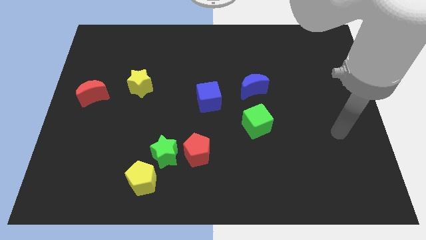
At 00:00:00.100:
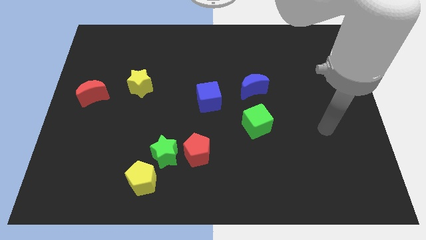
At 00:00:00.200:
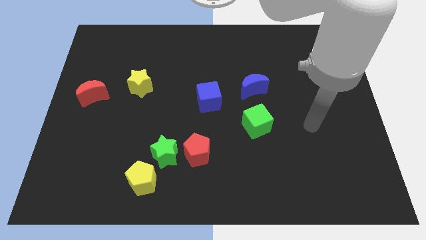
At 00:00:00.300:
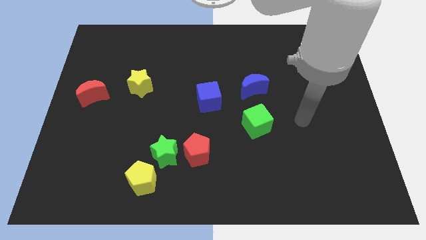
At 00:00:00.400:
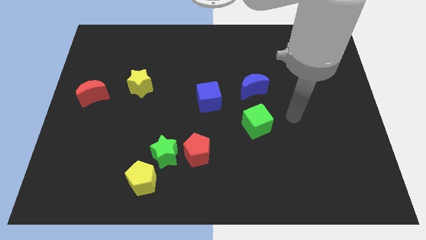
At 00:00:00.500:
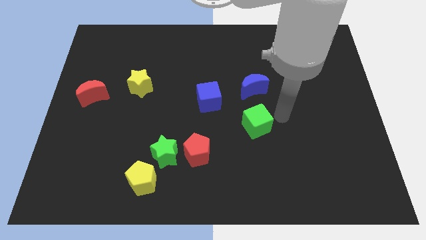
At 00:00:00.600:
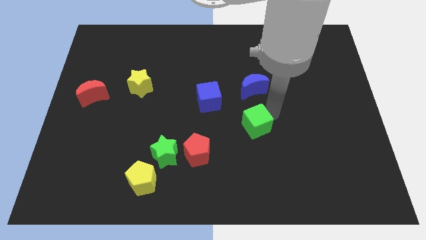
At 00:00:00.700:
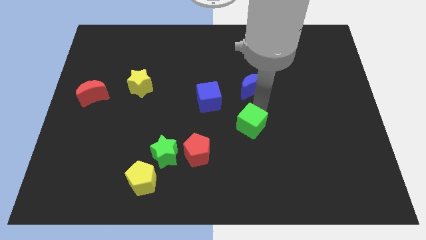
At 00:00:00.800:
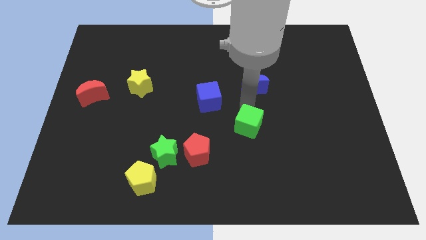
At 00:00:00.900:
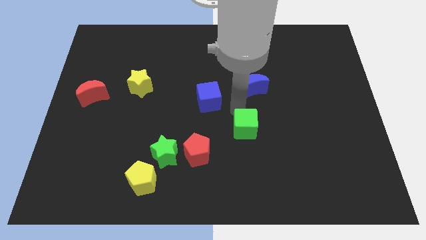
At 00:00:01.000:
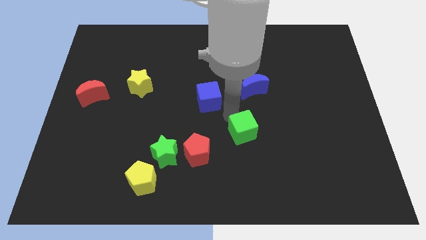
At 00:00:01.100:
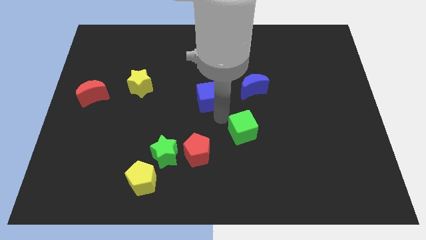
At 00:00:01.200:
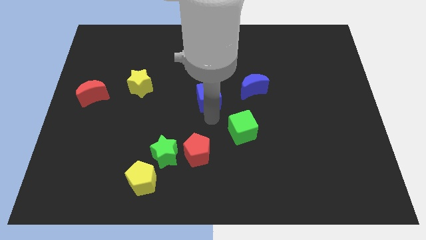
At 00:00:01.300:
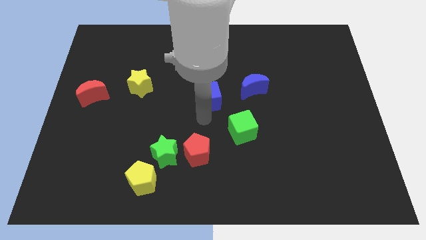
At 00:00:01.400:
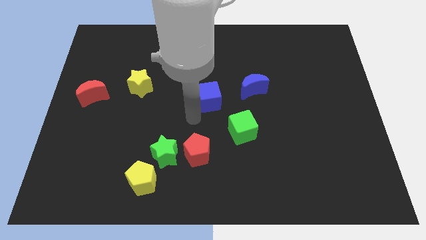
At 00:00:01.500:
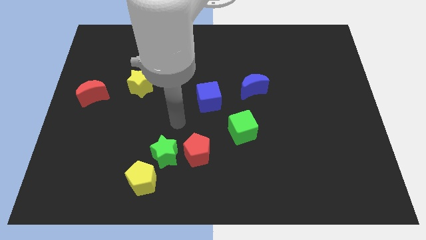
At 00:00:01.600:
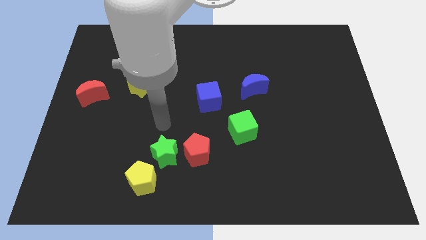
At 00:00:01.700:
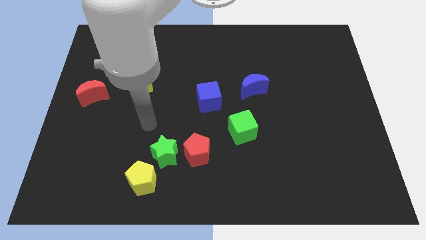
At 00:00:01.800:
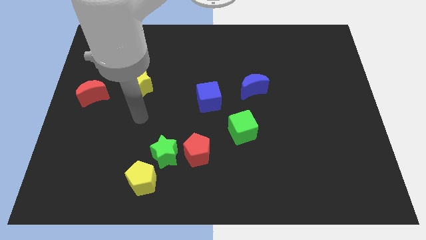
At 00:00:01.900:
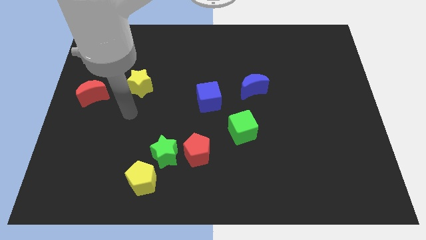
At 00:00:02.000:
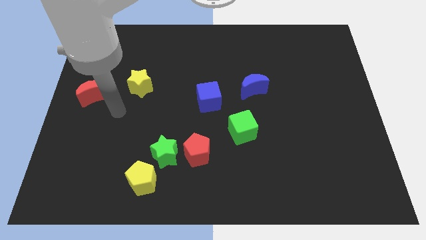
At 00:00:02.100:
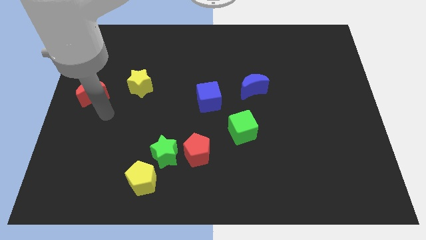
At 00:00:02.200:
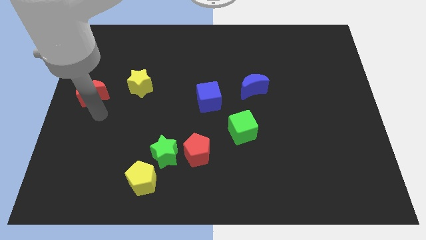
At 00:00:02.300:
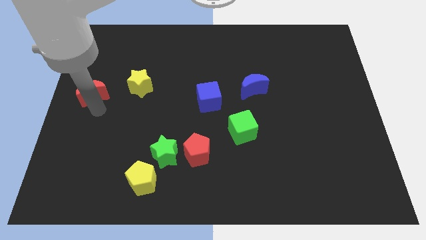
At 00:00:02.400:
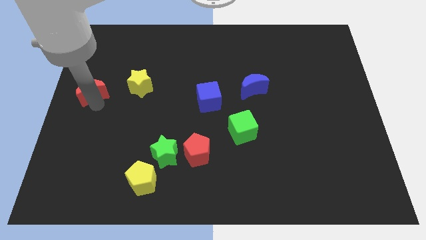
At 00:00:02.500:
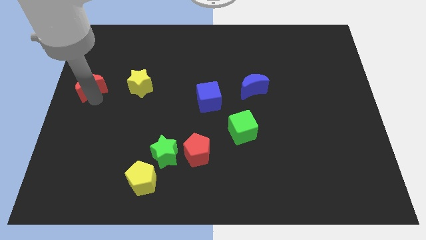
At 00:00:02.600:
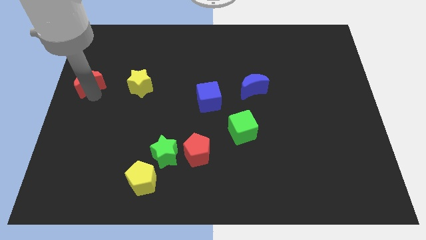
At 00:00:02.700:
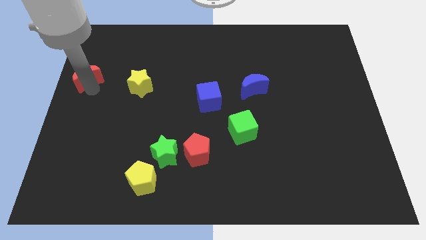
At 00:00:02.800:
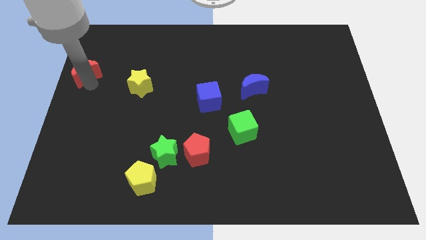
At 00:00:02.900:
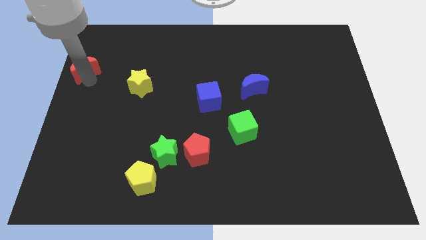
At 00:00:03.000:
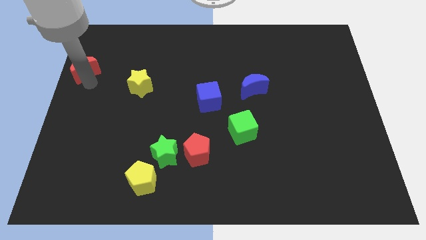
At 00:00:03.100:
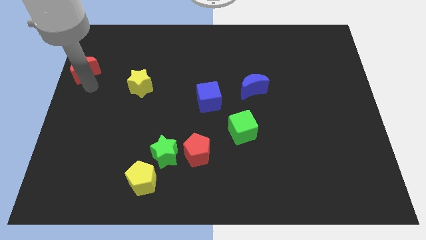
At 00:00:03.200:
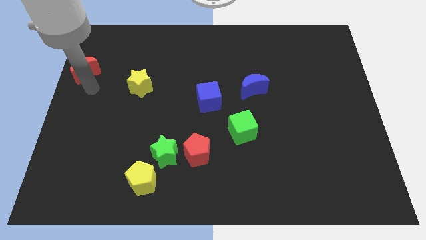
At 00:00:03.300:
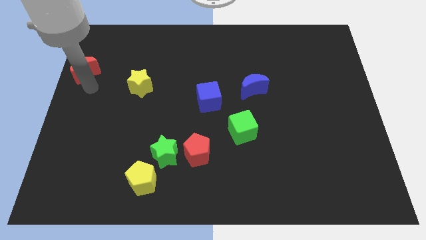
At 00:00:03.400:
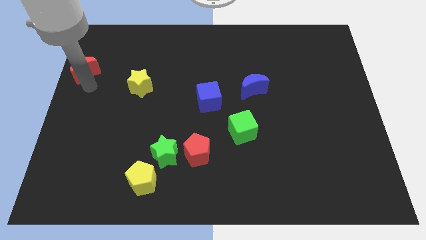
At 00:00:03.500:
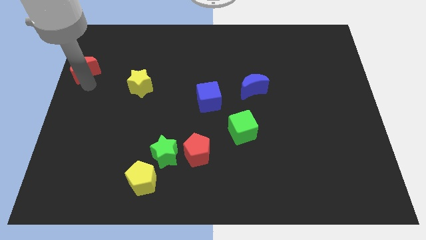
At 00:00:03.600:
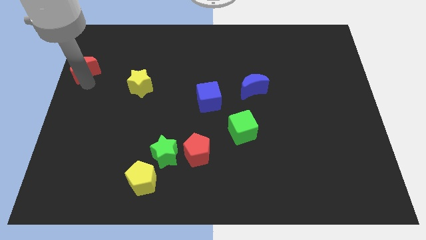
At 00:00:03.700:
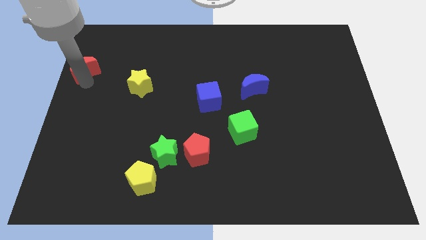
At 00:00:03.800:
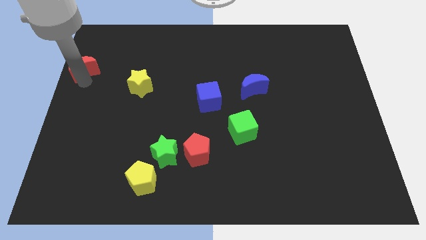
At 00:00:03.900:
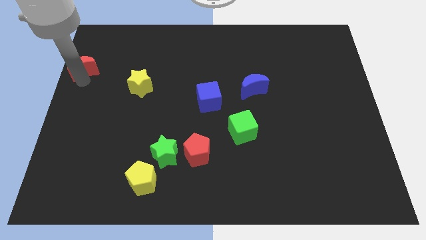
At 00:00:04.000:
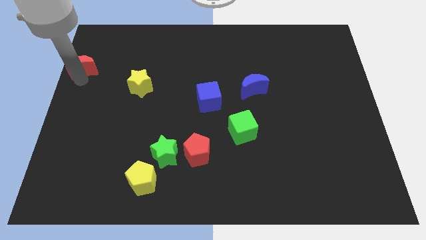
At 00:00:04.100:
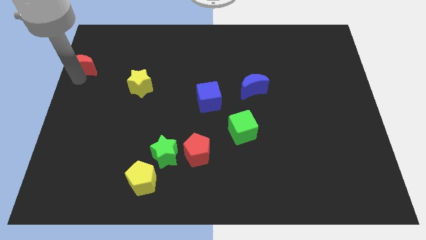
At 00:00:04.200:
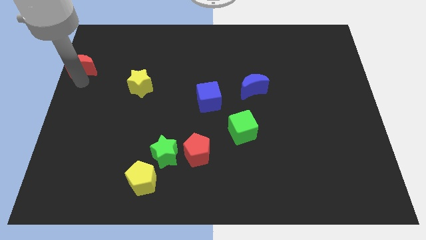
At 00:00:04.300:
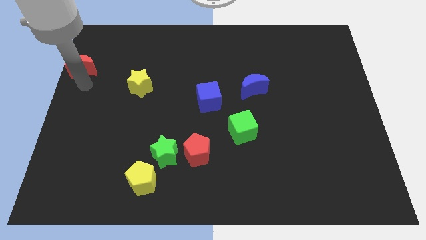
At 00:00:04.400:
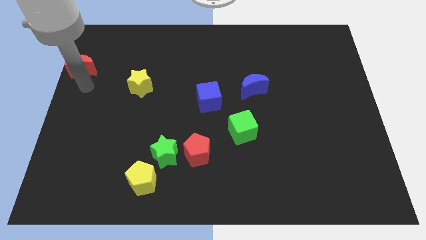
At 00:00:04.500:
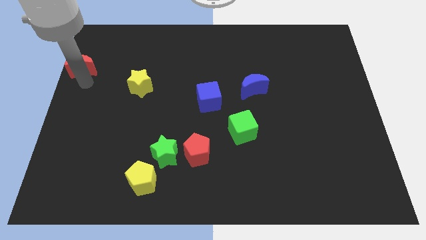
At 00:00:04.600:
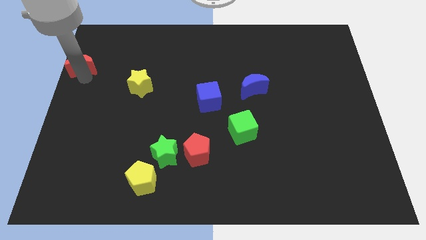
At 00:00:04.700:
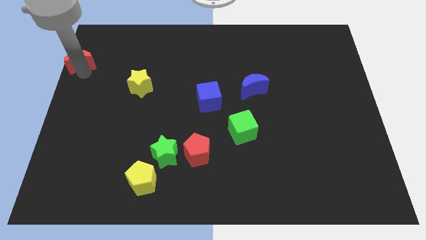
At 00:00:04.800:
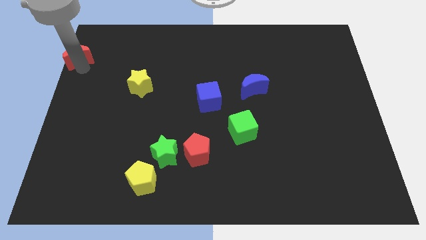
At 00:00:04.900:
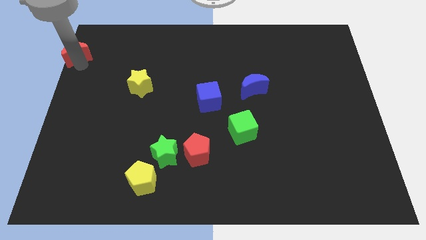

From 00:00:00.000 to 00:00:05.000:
move the red moon to the top left corner
